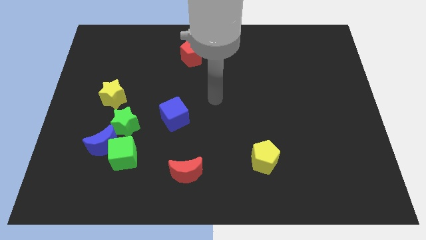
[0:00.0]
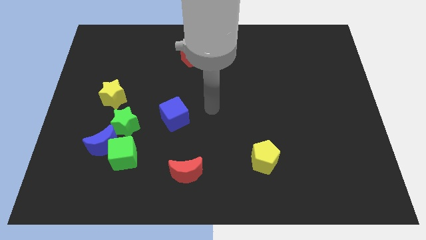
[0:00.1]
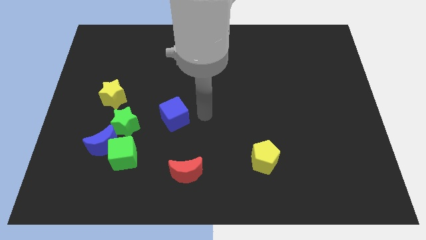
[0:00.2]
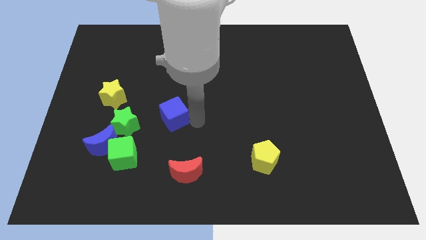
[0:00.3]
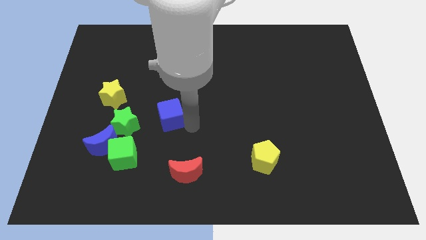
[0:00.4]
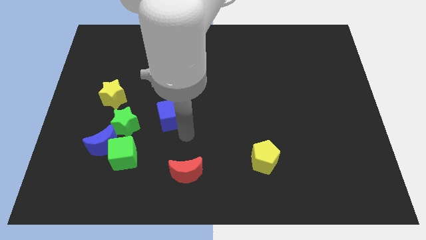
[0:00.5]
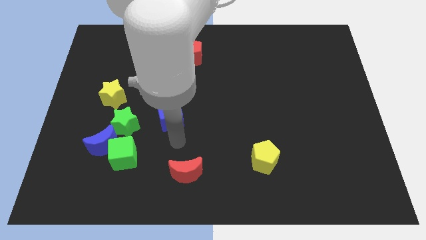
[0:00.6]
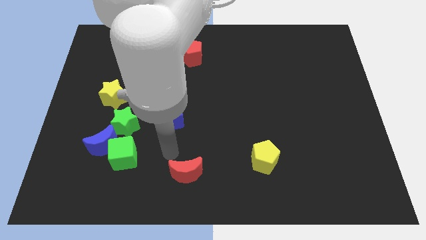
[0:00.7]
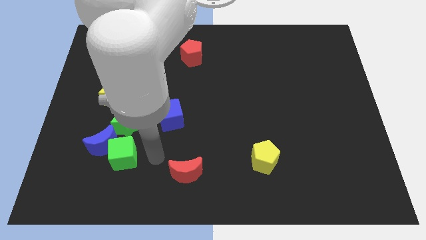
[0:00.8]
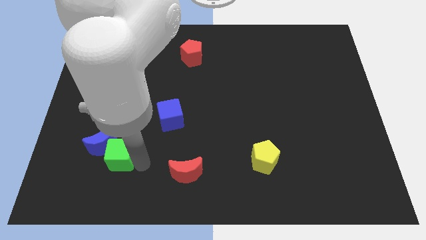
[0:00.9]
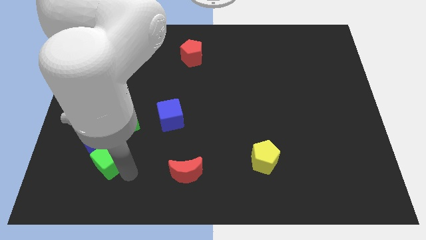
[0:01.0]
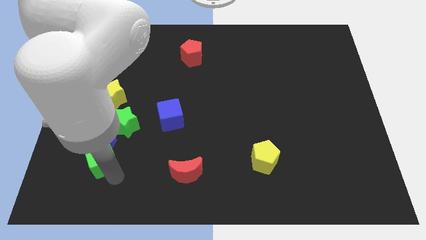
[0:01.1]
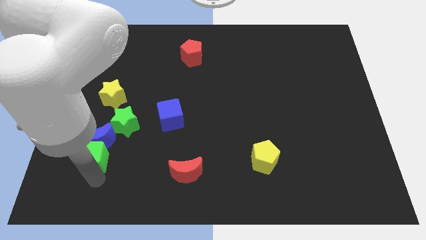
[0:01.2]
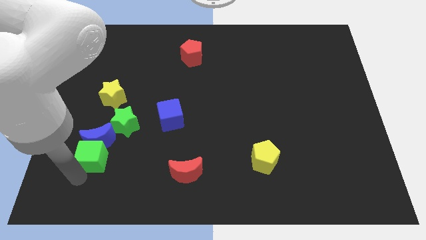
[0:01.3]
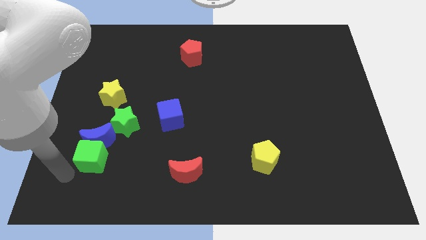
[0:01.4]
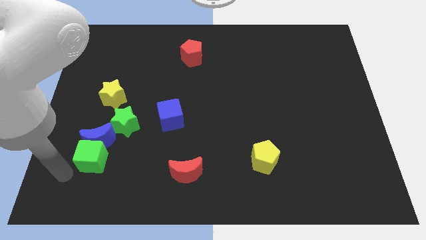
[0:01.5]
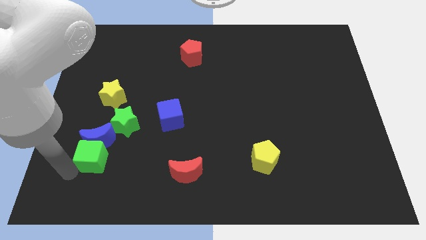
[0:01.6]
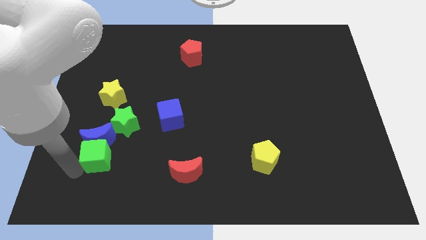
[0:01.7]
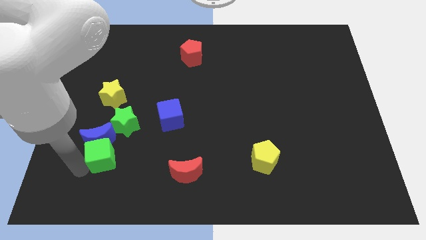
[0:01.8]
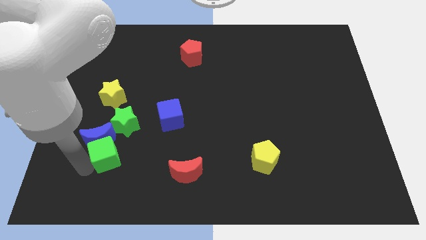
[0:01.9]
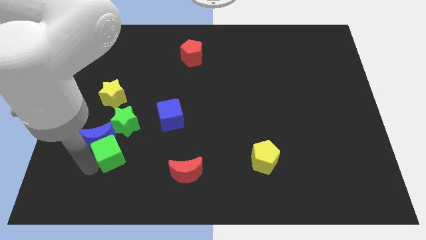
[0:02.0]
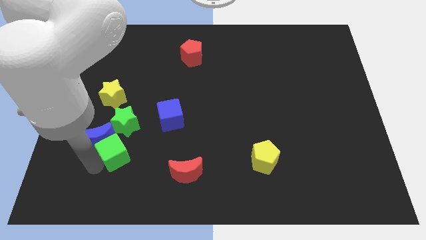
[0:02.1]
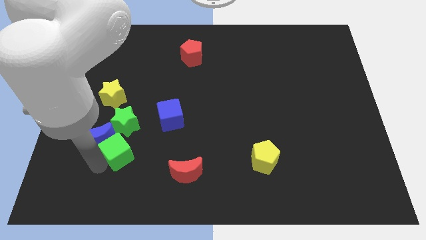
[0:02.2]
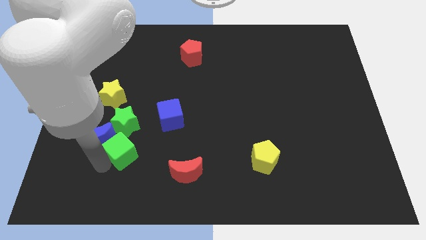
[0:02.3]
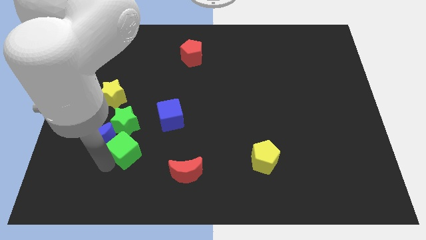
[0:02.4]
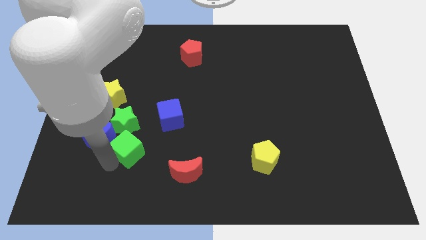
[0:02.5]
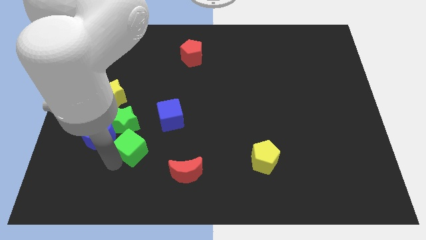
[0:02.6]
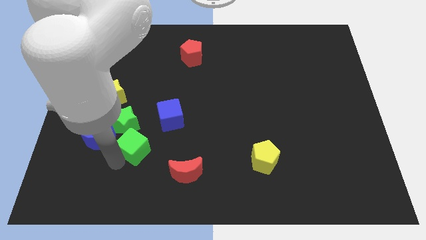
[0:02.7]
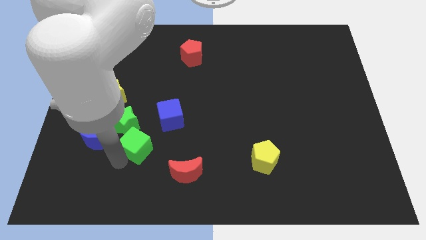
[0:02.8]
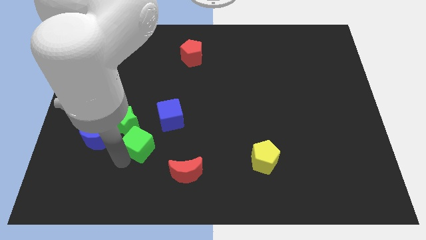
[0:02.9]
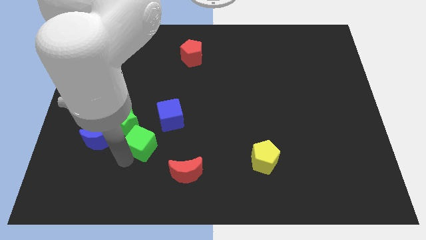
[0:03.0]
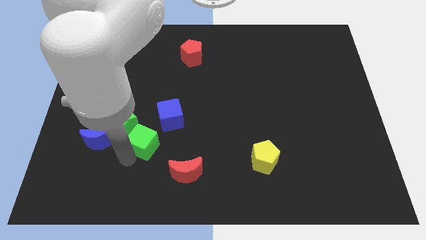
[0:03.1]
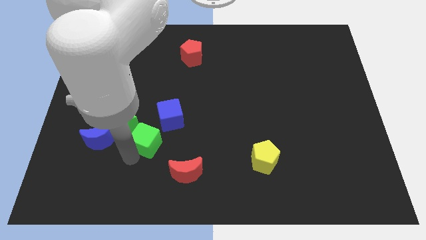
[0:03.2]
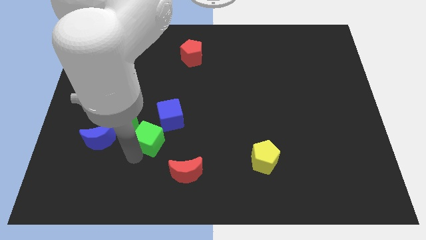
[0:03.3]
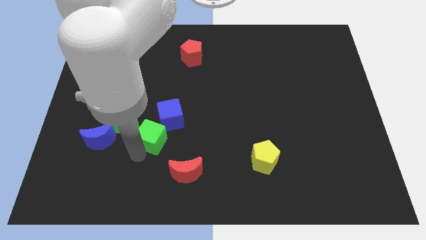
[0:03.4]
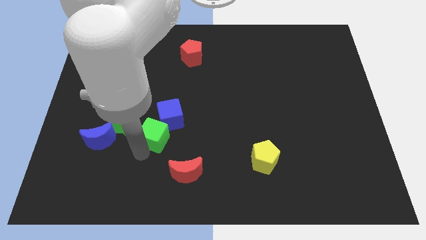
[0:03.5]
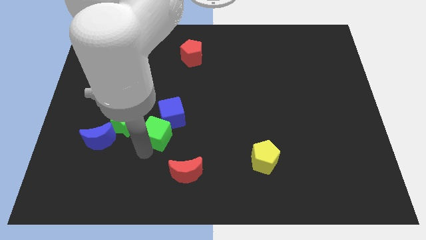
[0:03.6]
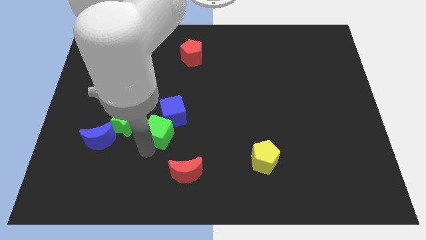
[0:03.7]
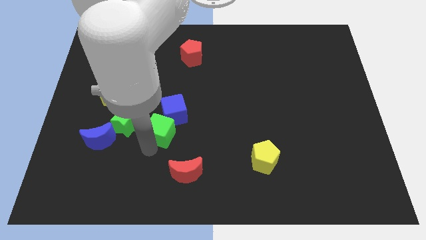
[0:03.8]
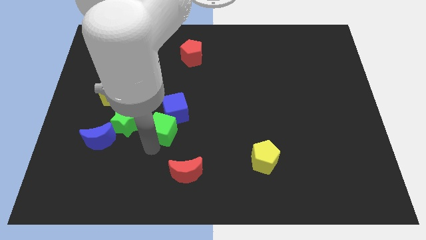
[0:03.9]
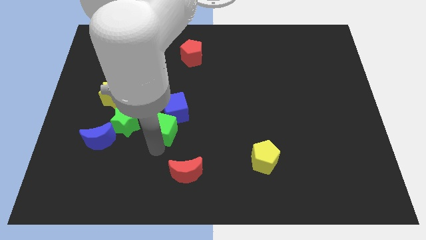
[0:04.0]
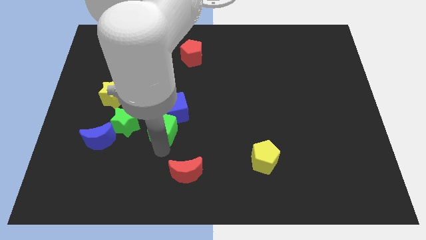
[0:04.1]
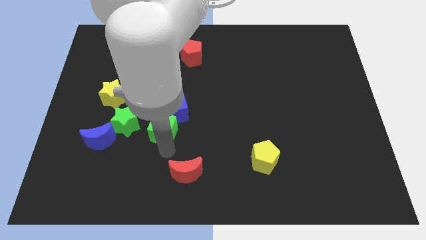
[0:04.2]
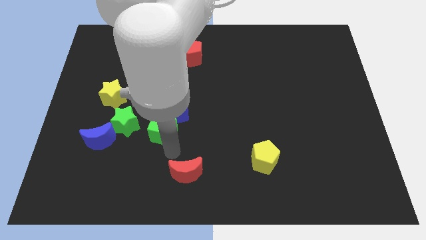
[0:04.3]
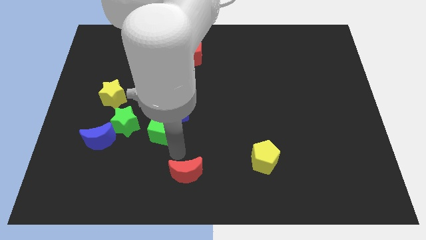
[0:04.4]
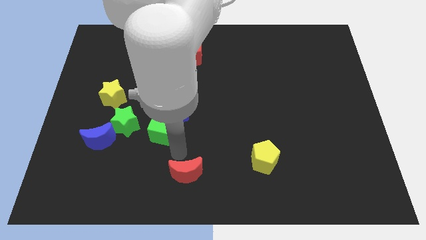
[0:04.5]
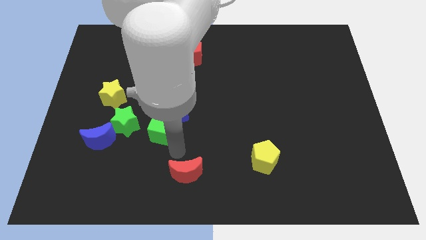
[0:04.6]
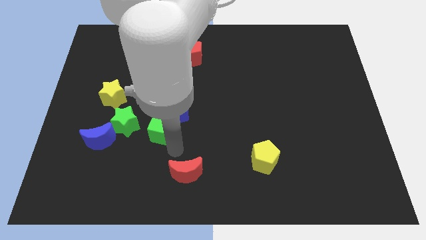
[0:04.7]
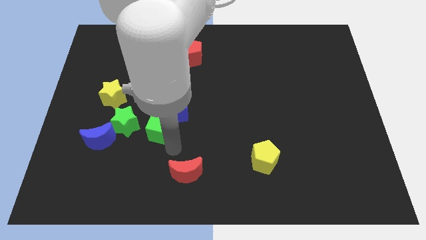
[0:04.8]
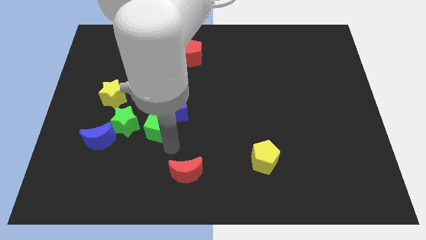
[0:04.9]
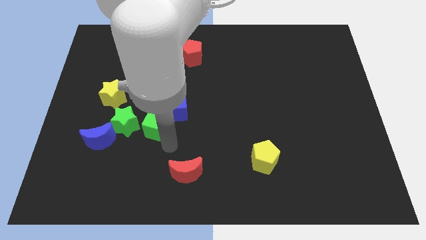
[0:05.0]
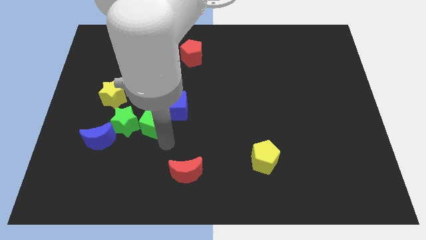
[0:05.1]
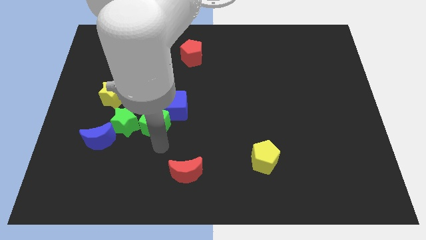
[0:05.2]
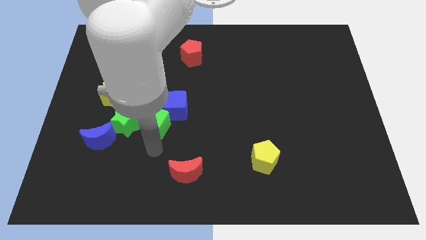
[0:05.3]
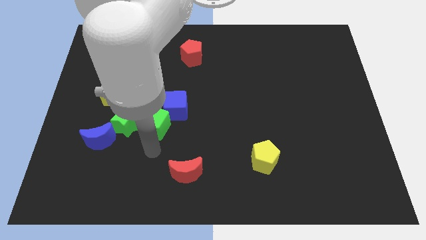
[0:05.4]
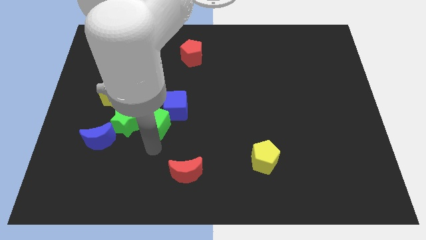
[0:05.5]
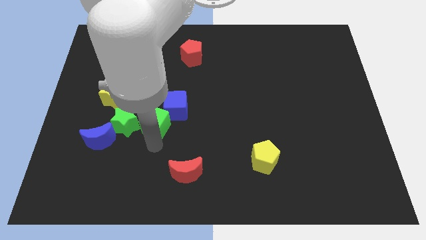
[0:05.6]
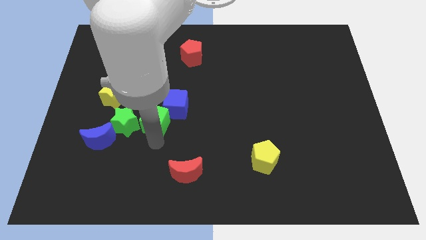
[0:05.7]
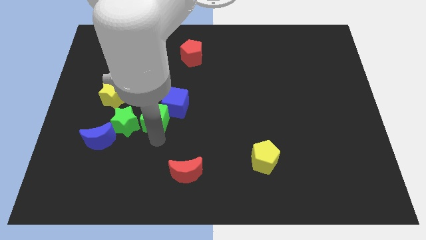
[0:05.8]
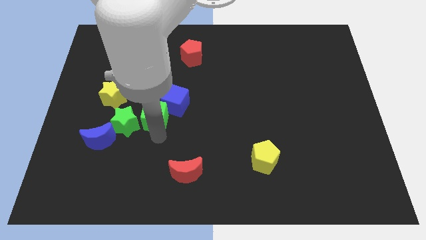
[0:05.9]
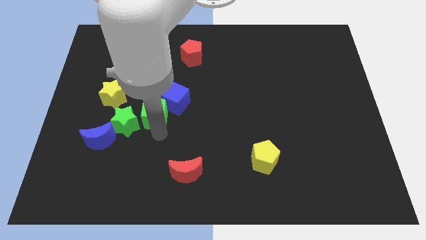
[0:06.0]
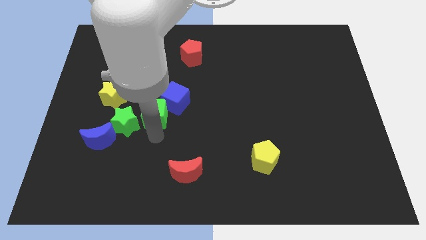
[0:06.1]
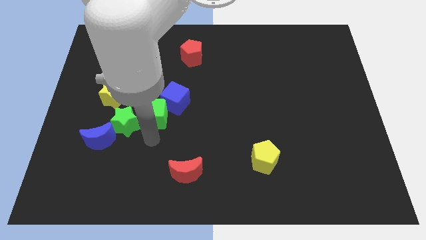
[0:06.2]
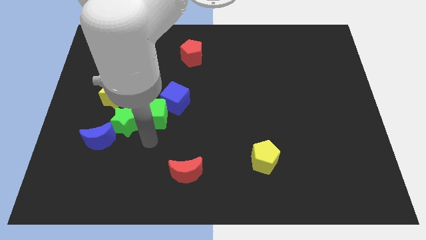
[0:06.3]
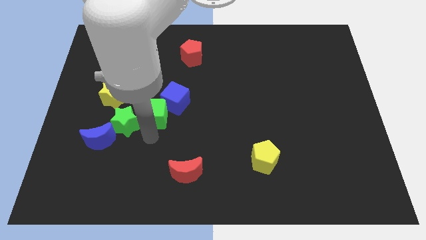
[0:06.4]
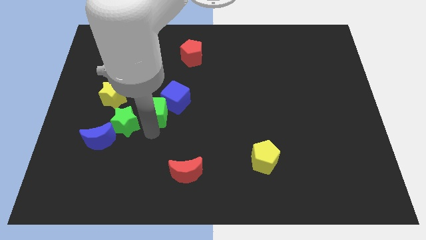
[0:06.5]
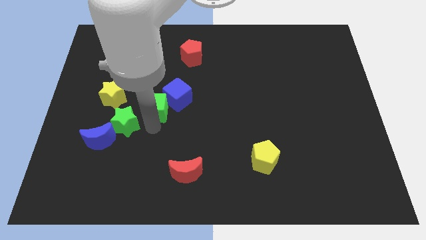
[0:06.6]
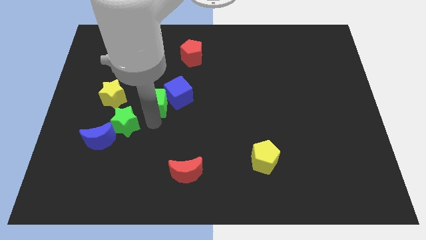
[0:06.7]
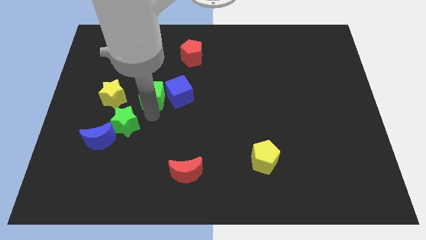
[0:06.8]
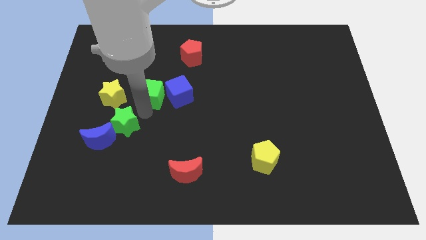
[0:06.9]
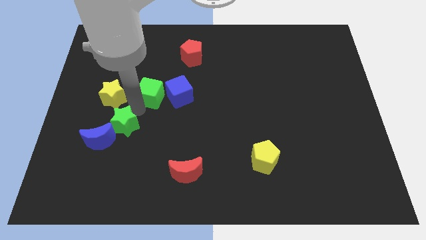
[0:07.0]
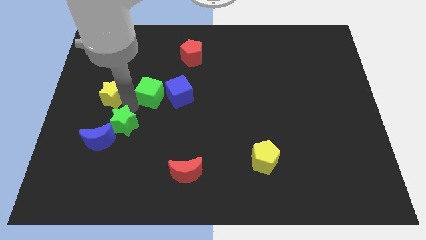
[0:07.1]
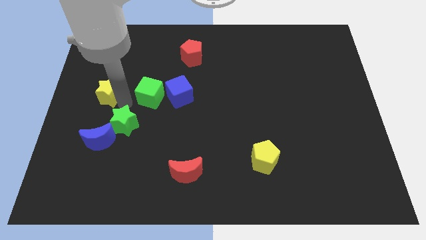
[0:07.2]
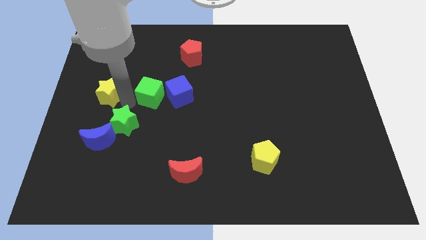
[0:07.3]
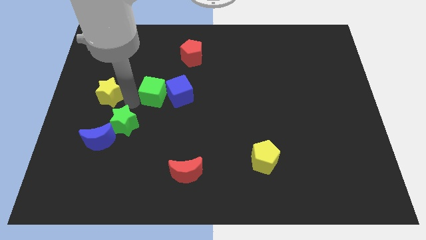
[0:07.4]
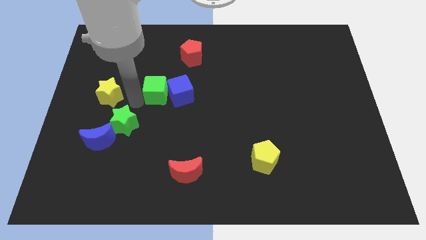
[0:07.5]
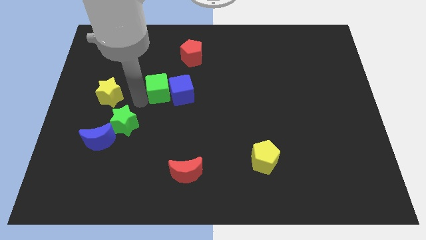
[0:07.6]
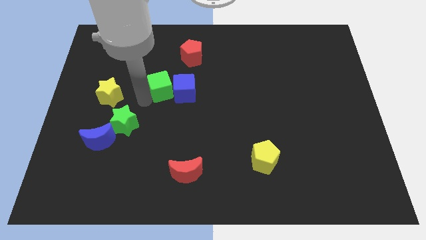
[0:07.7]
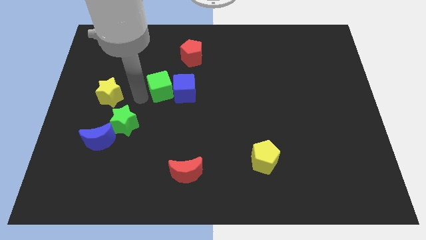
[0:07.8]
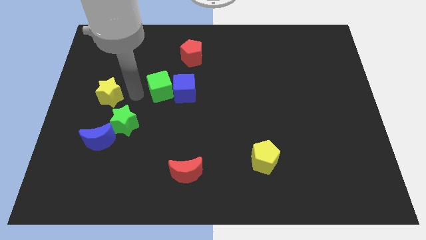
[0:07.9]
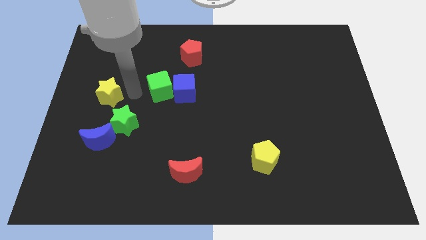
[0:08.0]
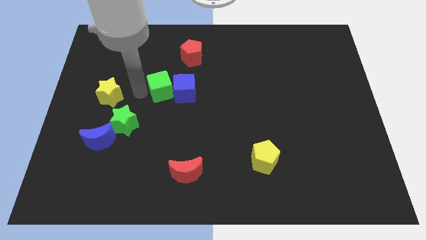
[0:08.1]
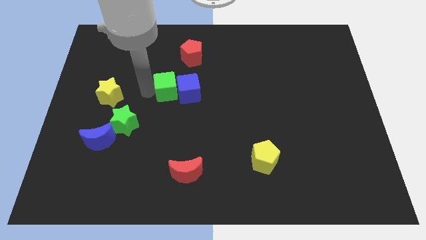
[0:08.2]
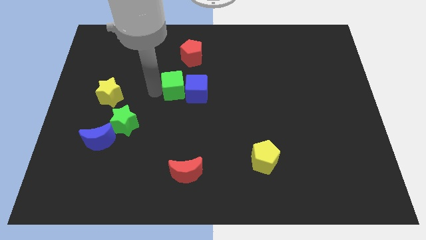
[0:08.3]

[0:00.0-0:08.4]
move the green cube to the bottom of the red pentagon
